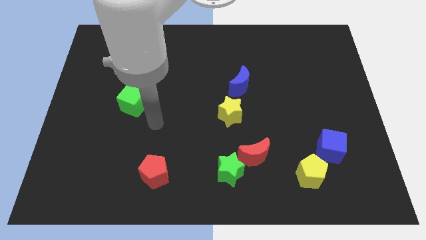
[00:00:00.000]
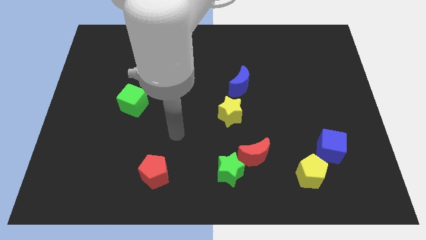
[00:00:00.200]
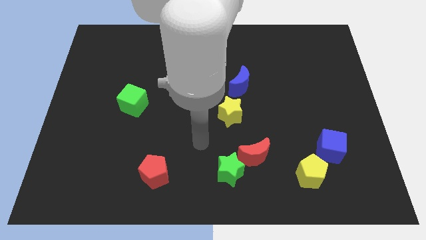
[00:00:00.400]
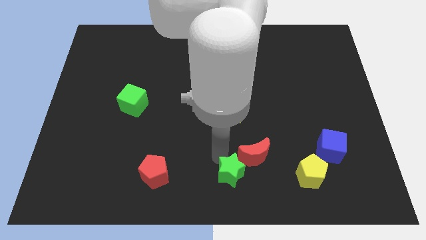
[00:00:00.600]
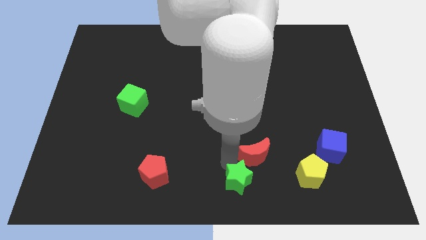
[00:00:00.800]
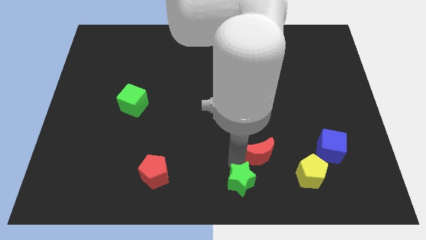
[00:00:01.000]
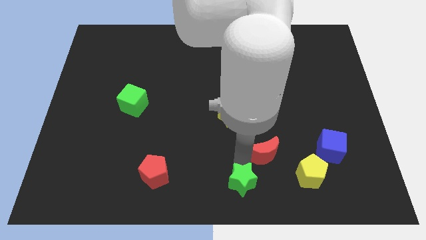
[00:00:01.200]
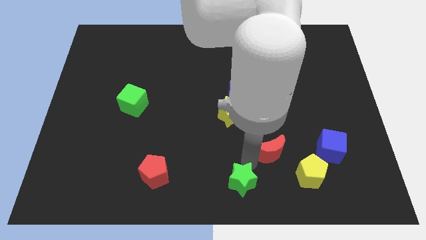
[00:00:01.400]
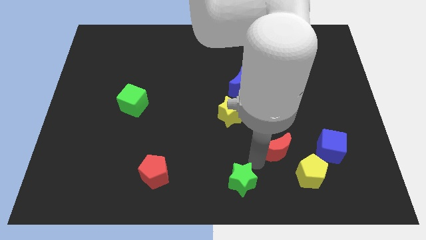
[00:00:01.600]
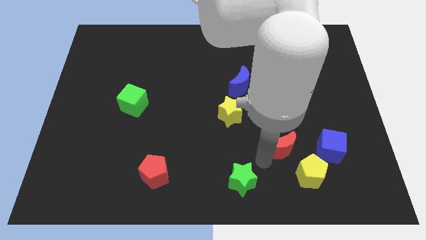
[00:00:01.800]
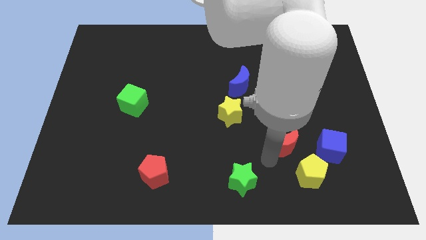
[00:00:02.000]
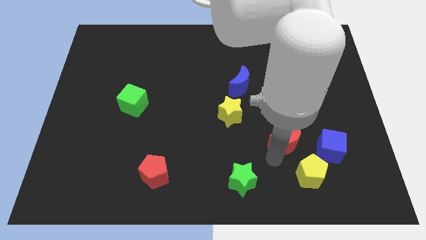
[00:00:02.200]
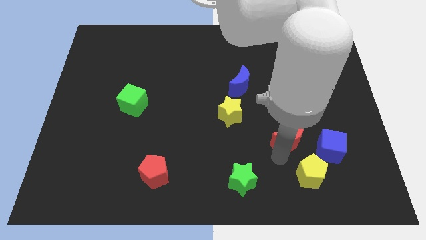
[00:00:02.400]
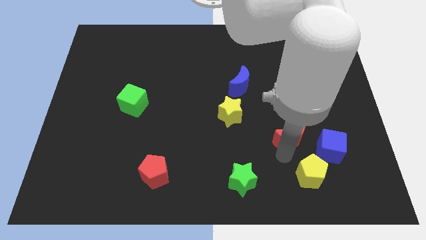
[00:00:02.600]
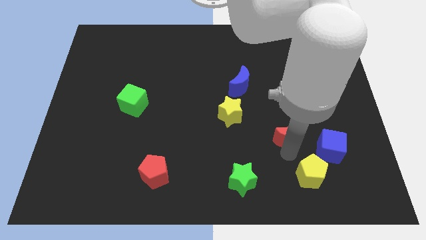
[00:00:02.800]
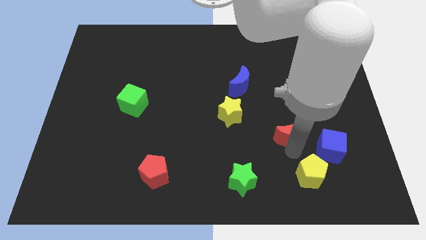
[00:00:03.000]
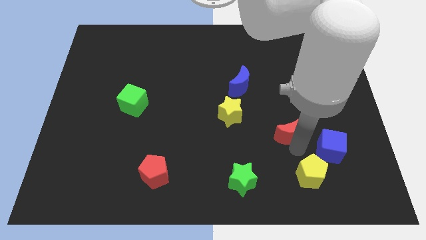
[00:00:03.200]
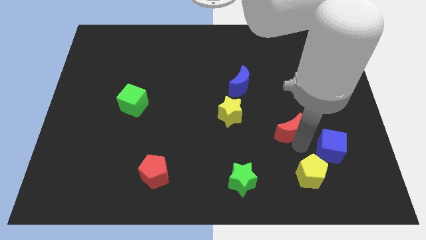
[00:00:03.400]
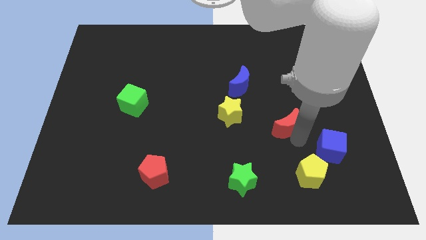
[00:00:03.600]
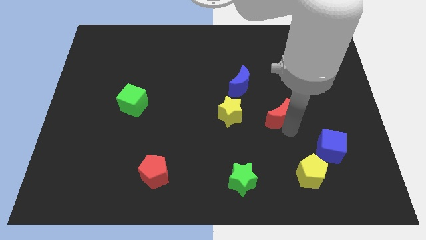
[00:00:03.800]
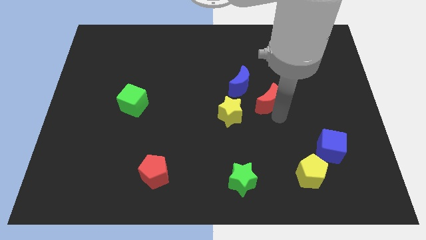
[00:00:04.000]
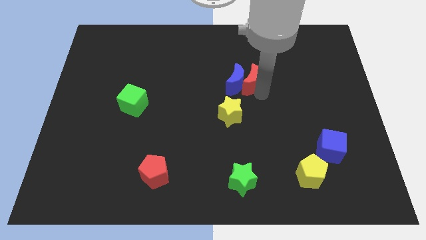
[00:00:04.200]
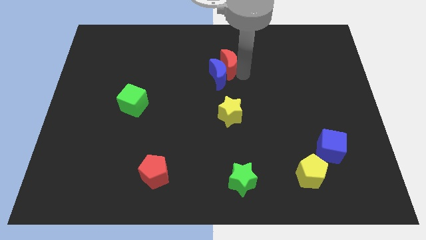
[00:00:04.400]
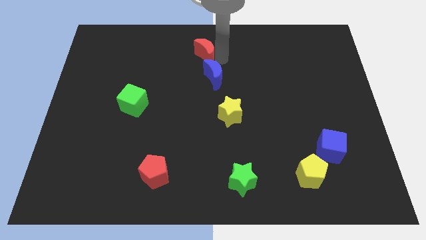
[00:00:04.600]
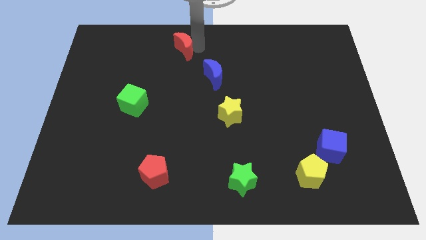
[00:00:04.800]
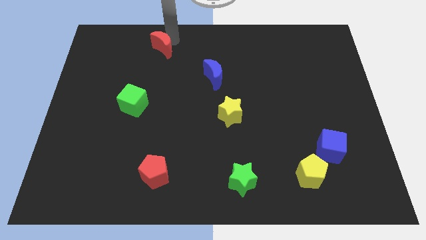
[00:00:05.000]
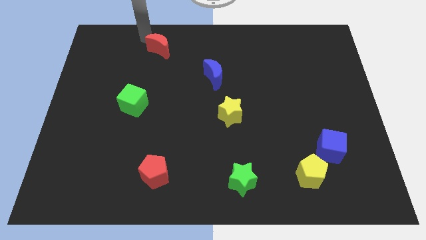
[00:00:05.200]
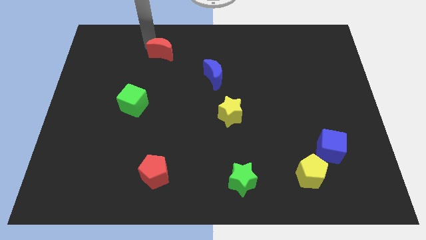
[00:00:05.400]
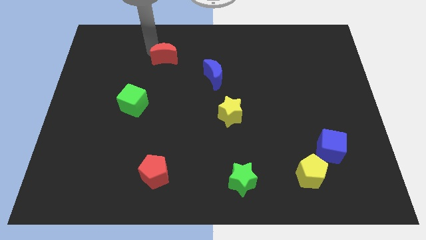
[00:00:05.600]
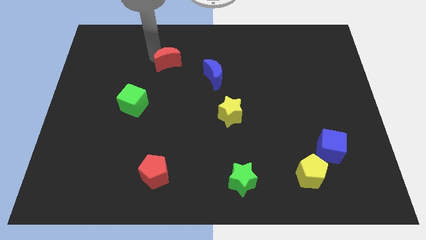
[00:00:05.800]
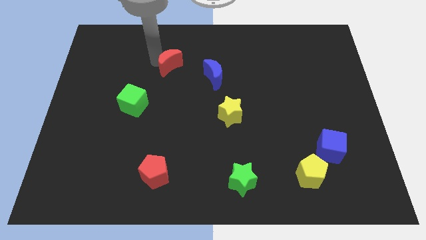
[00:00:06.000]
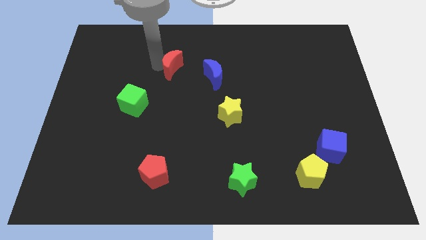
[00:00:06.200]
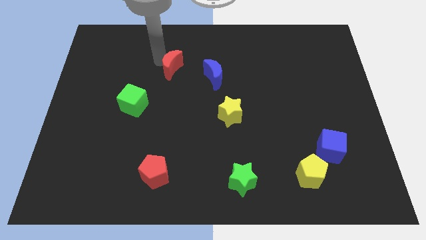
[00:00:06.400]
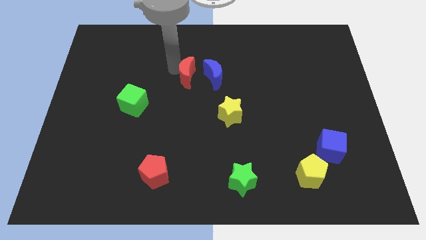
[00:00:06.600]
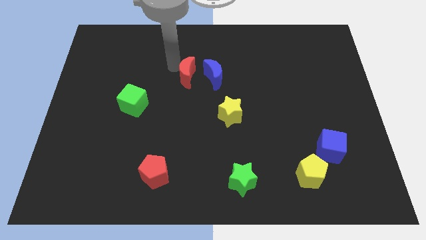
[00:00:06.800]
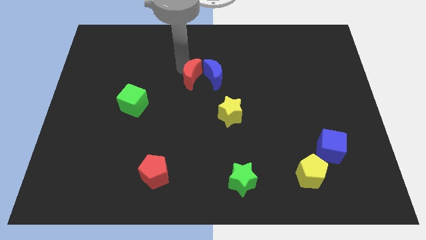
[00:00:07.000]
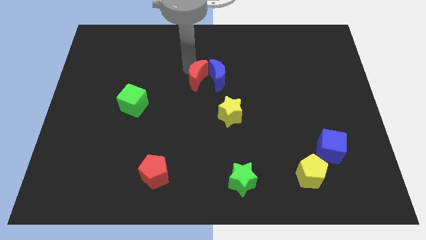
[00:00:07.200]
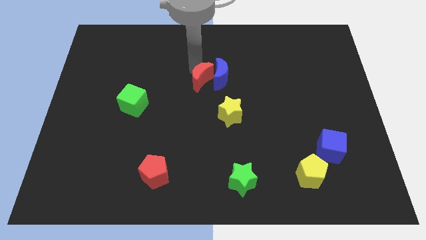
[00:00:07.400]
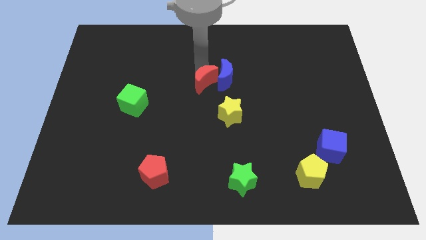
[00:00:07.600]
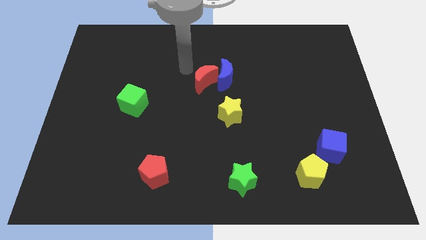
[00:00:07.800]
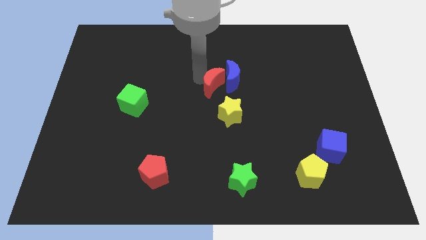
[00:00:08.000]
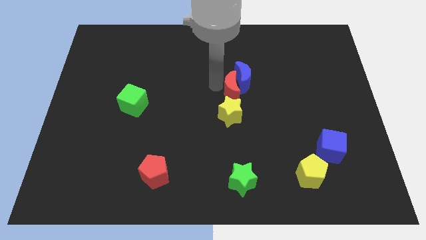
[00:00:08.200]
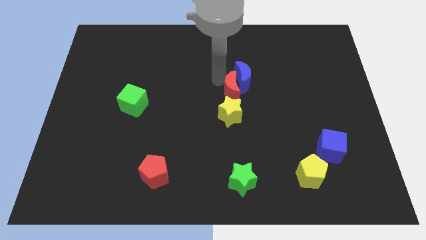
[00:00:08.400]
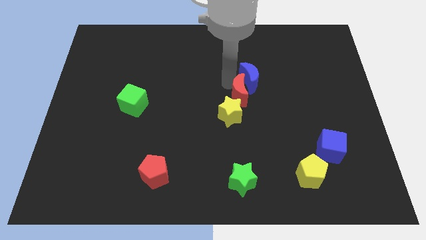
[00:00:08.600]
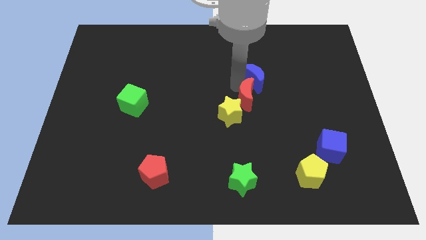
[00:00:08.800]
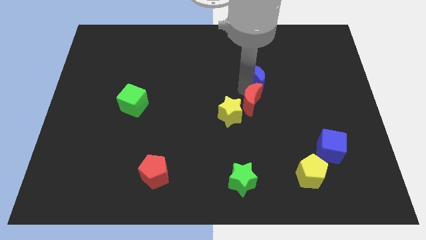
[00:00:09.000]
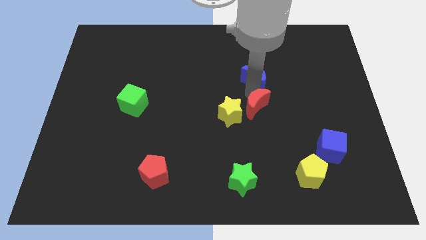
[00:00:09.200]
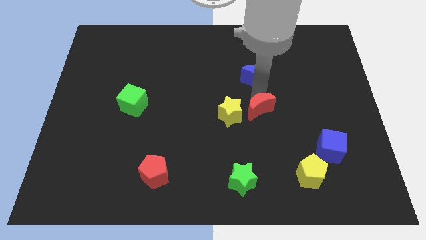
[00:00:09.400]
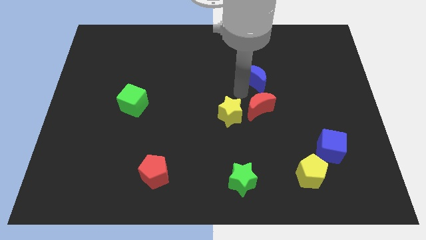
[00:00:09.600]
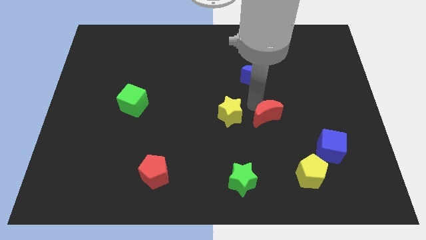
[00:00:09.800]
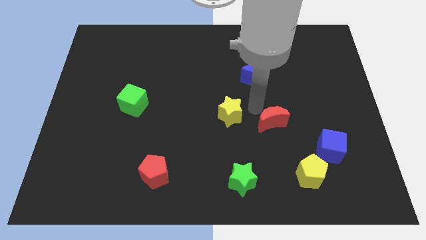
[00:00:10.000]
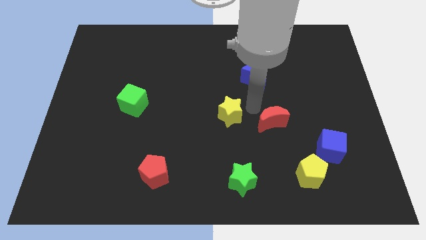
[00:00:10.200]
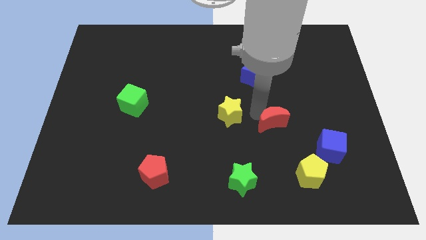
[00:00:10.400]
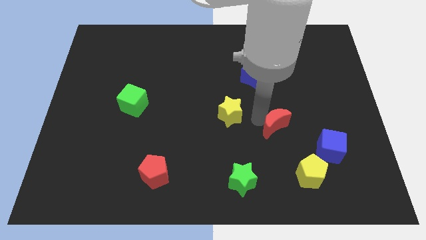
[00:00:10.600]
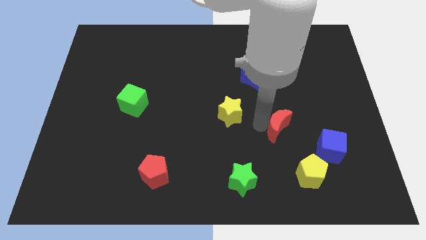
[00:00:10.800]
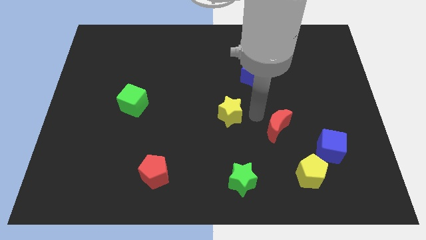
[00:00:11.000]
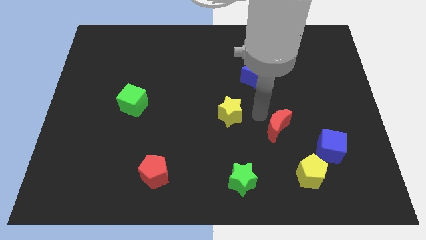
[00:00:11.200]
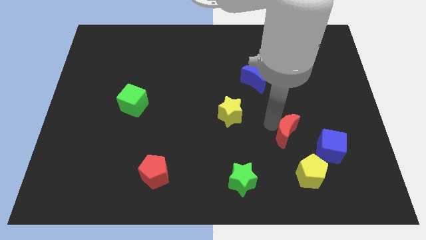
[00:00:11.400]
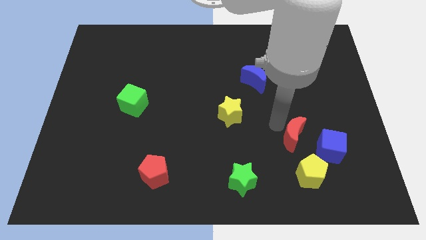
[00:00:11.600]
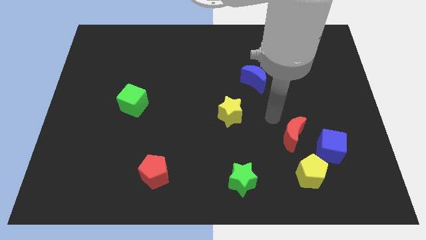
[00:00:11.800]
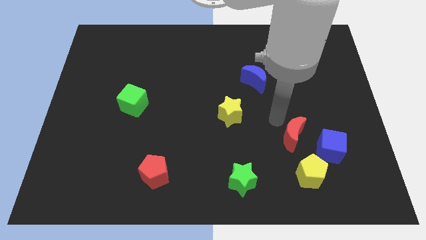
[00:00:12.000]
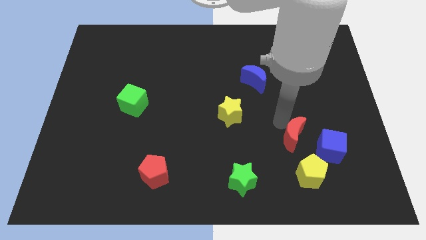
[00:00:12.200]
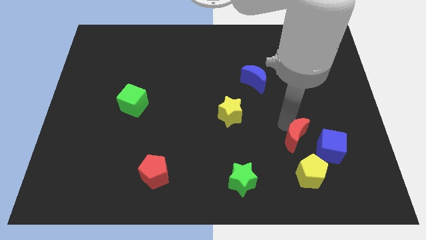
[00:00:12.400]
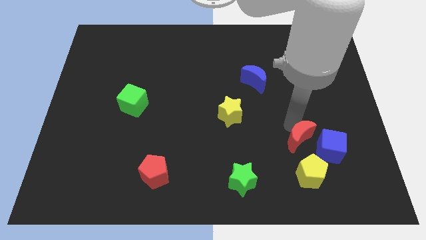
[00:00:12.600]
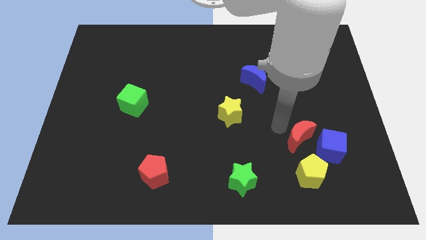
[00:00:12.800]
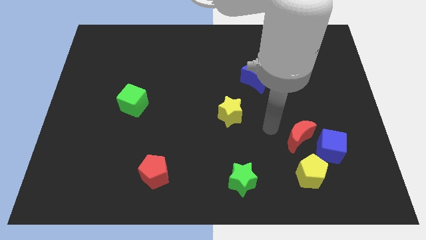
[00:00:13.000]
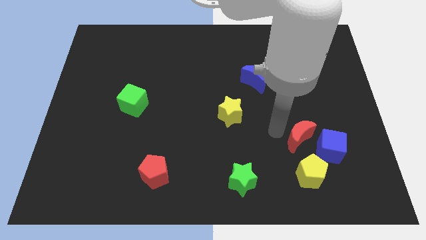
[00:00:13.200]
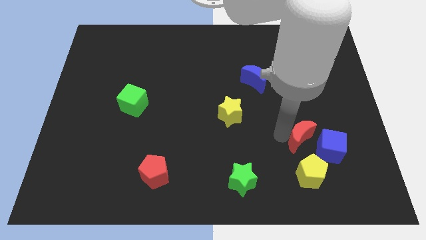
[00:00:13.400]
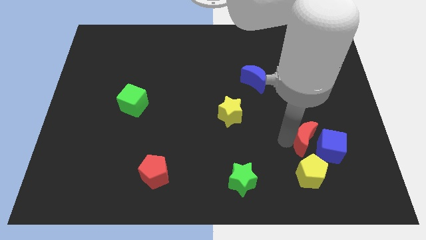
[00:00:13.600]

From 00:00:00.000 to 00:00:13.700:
push the red moon towards the blue cube
